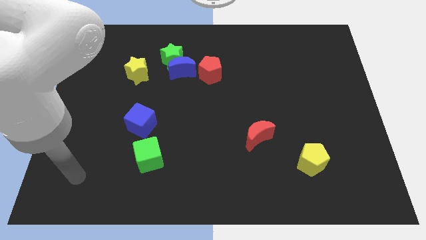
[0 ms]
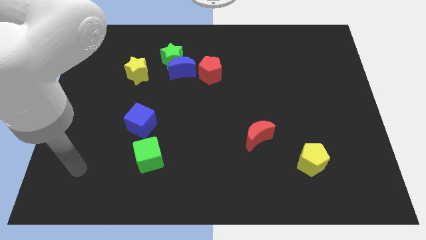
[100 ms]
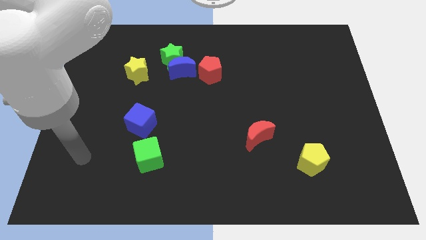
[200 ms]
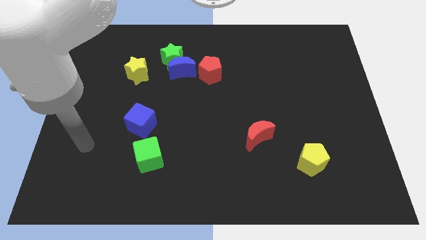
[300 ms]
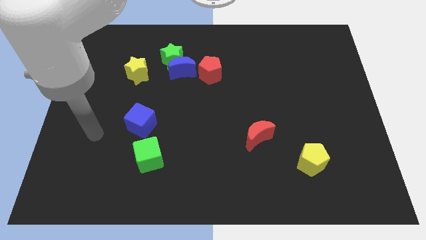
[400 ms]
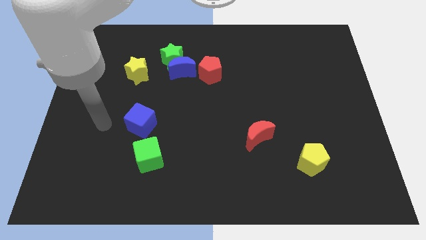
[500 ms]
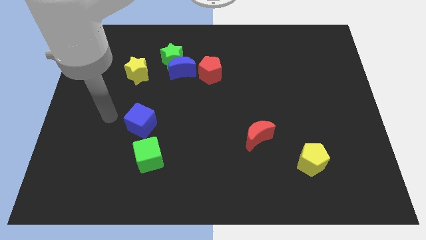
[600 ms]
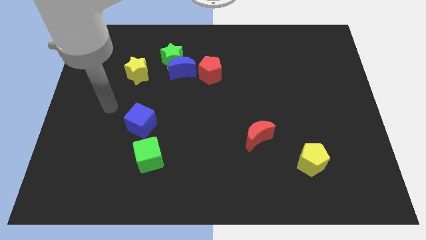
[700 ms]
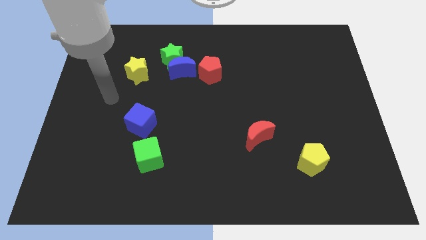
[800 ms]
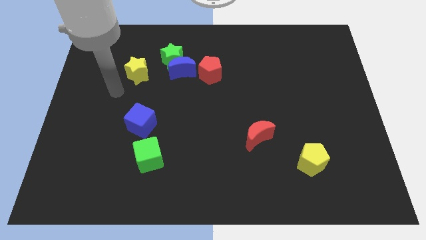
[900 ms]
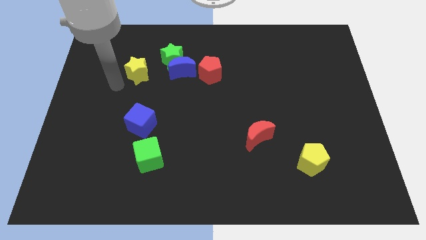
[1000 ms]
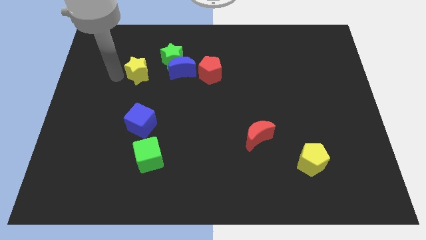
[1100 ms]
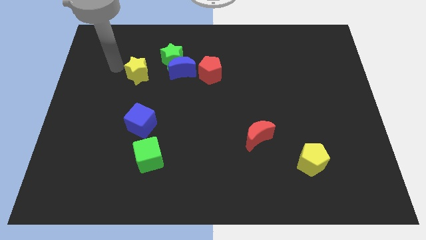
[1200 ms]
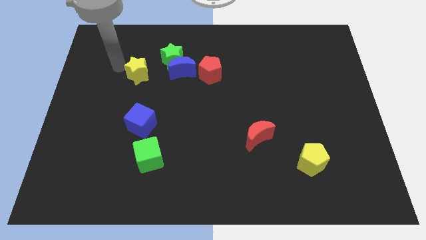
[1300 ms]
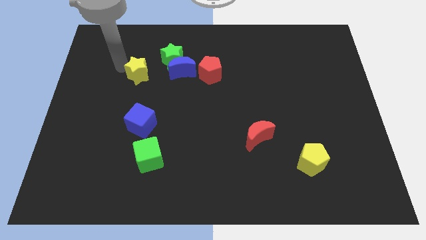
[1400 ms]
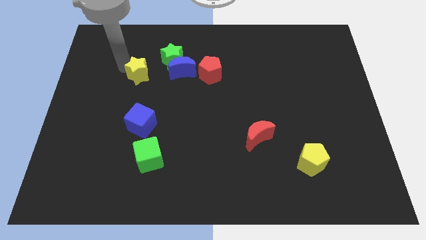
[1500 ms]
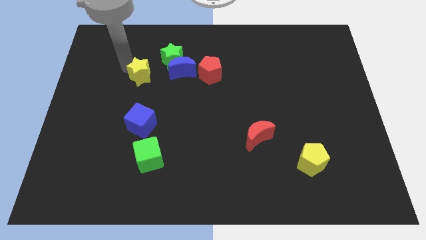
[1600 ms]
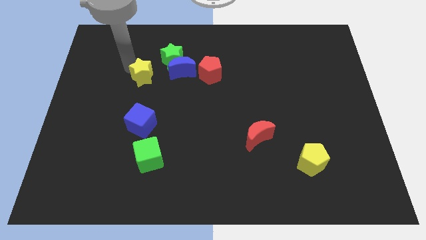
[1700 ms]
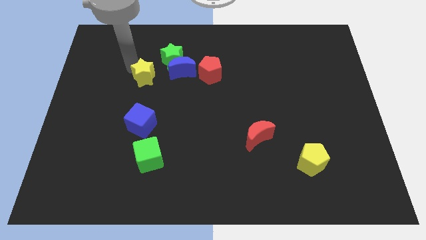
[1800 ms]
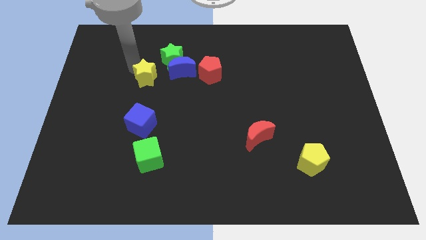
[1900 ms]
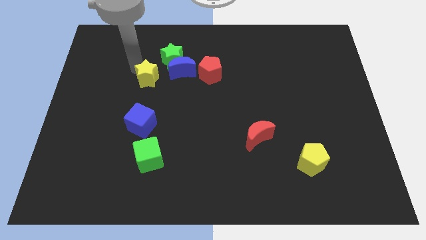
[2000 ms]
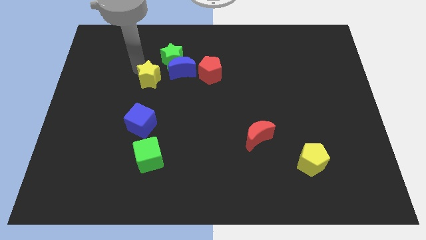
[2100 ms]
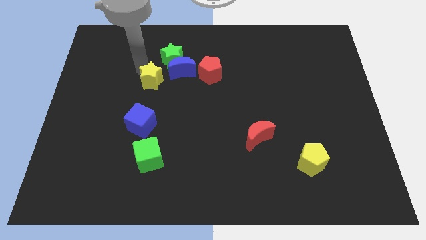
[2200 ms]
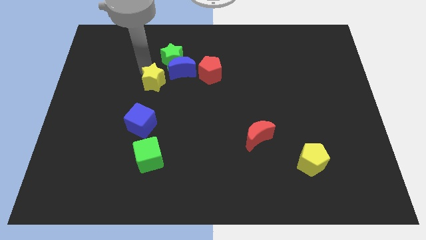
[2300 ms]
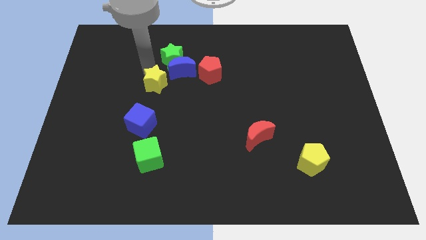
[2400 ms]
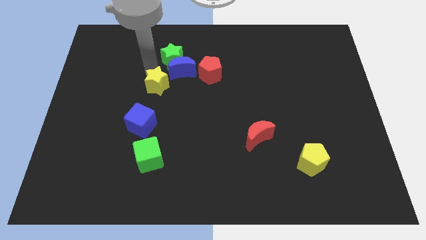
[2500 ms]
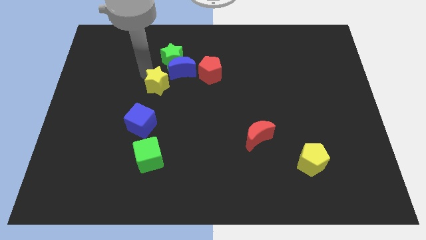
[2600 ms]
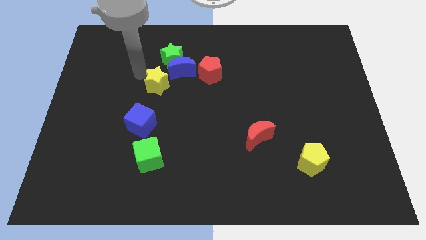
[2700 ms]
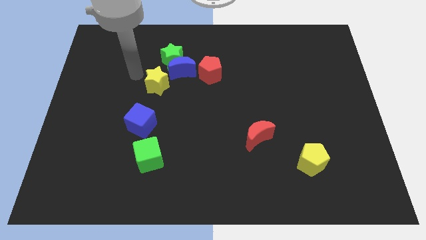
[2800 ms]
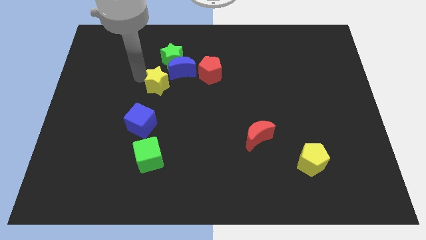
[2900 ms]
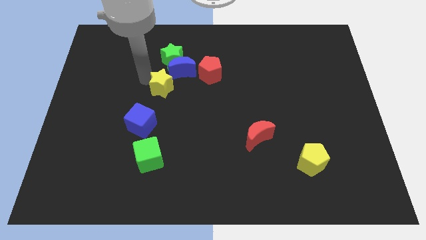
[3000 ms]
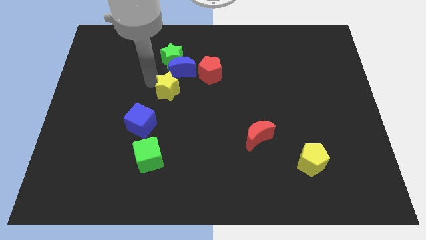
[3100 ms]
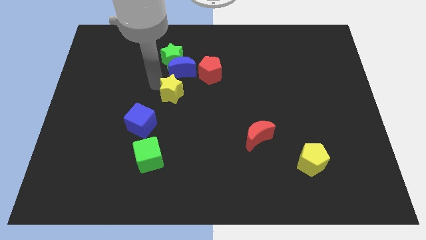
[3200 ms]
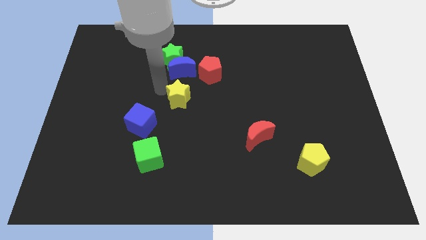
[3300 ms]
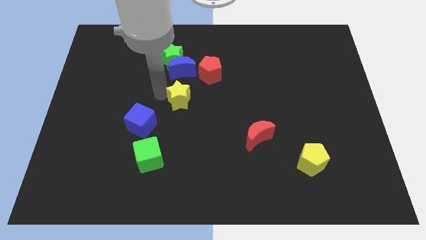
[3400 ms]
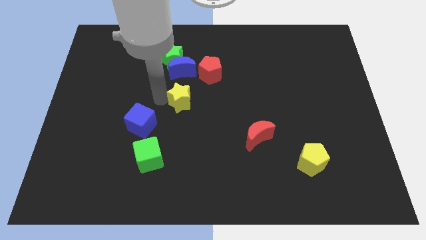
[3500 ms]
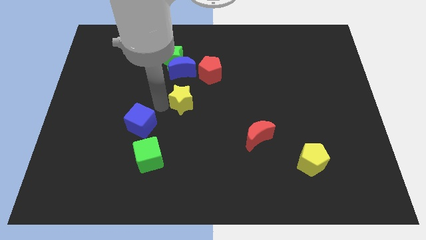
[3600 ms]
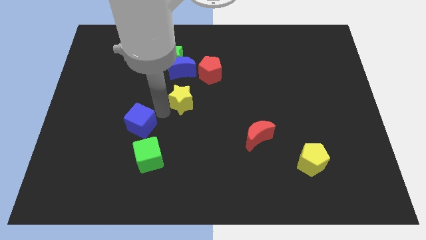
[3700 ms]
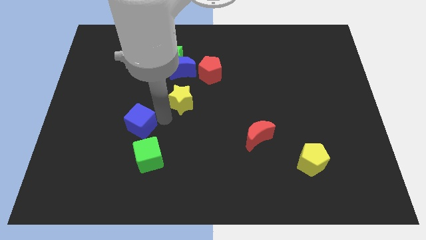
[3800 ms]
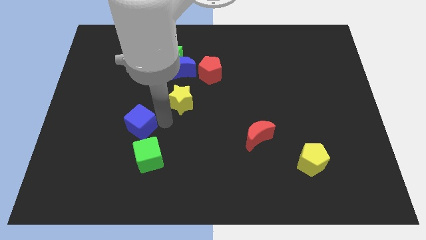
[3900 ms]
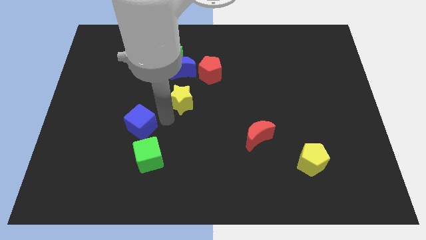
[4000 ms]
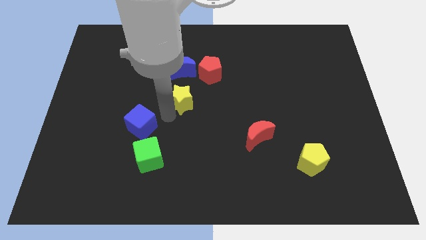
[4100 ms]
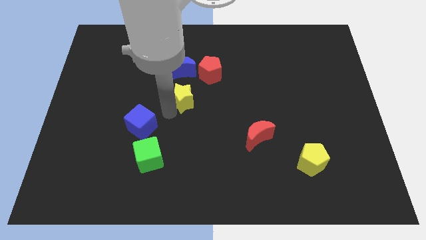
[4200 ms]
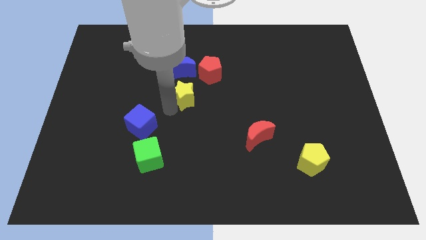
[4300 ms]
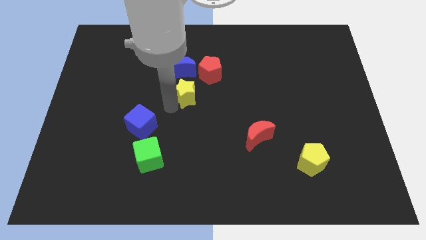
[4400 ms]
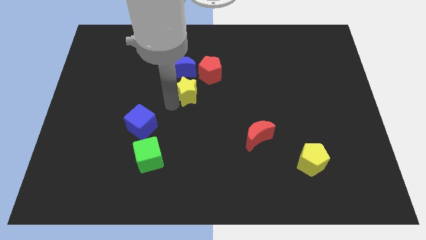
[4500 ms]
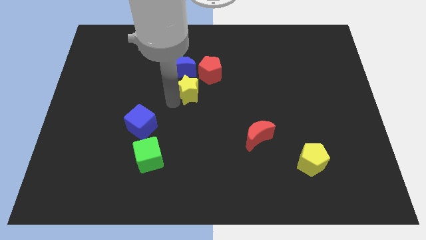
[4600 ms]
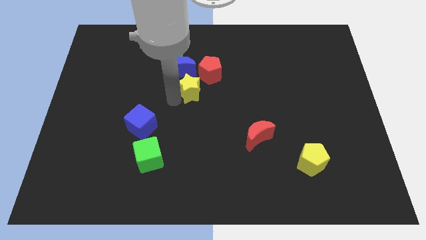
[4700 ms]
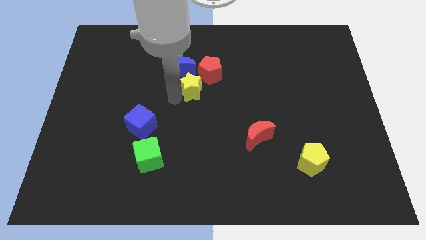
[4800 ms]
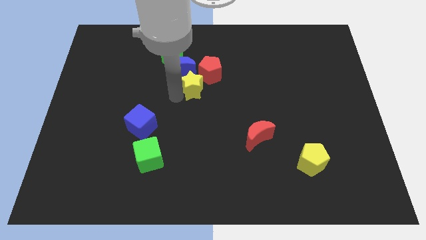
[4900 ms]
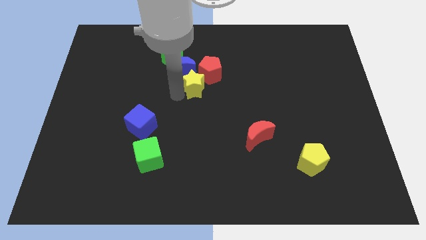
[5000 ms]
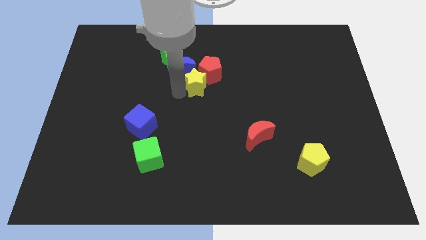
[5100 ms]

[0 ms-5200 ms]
put the yellow star towards the red pentagon

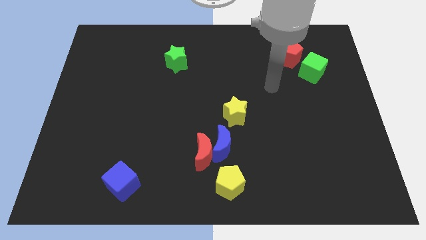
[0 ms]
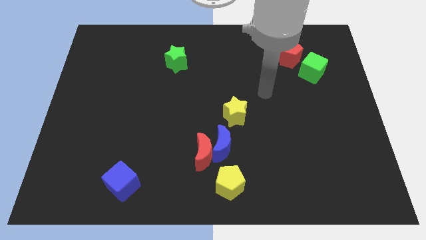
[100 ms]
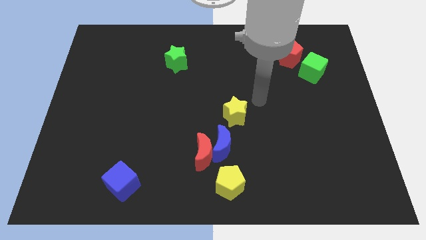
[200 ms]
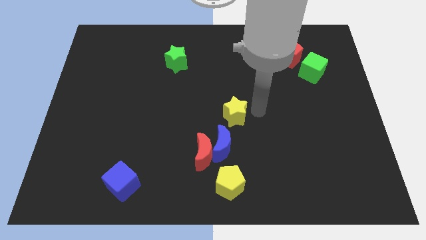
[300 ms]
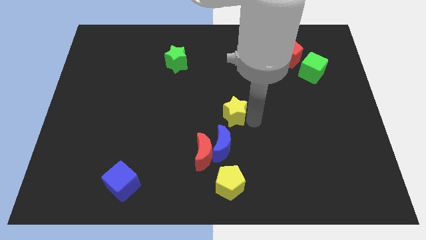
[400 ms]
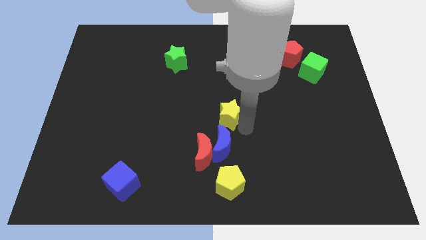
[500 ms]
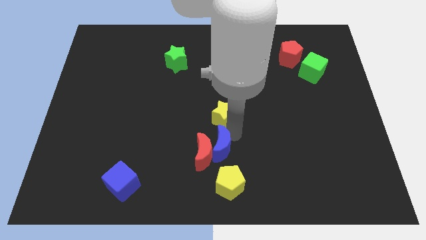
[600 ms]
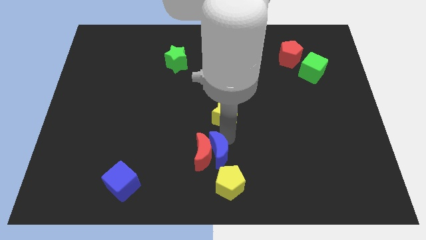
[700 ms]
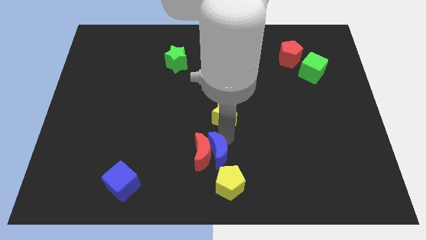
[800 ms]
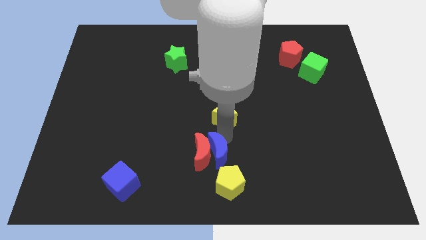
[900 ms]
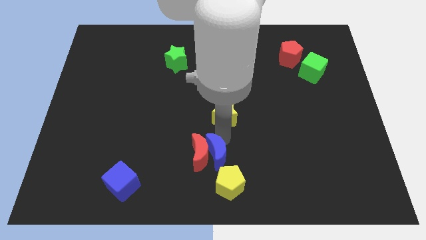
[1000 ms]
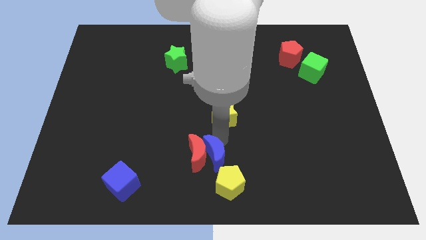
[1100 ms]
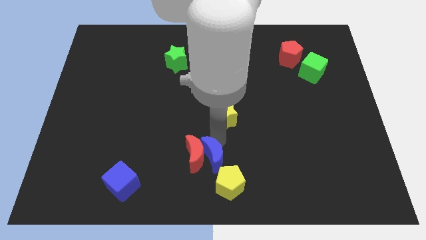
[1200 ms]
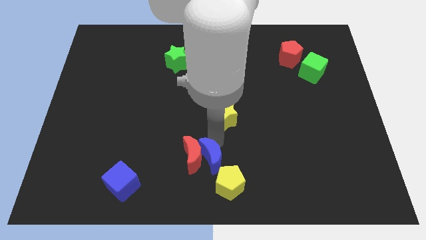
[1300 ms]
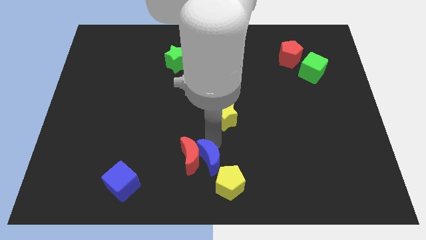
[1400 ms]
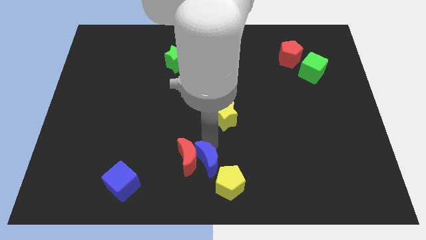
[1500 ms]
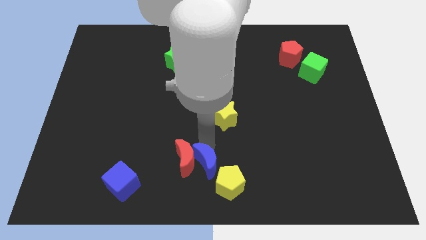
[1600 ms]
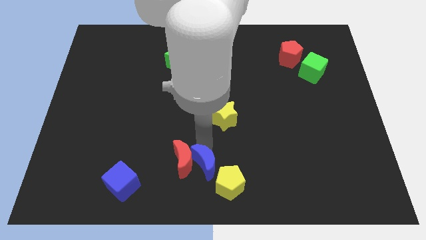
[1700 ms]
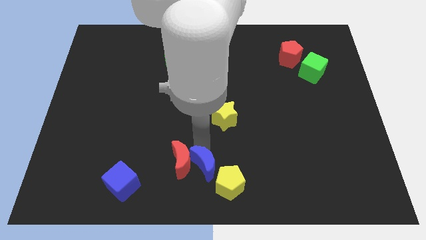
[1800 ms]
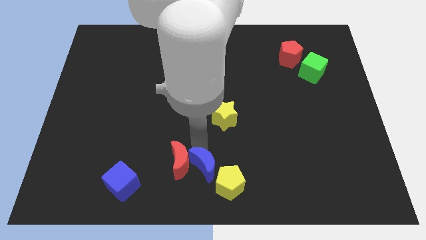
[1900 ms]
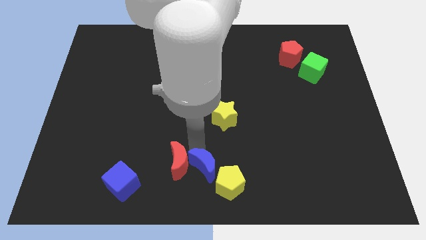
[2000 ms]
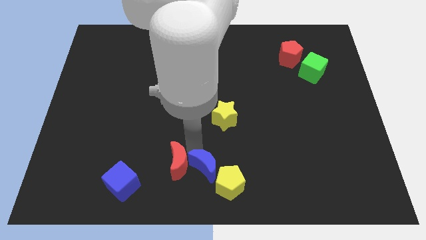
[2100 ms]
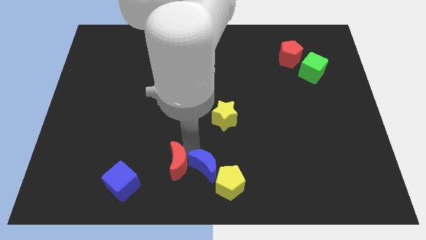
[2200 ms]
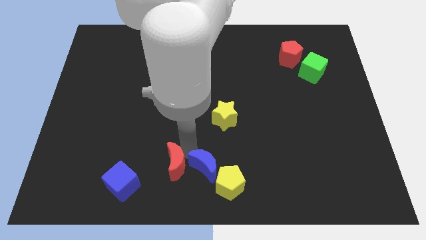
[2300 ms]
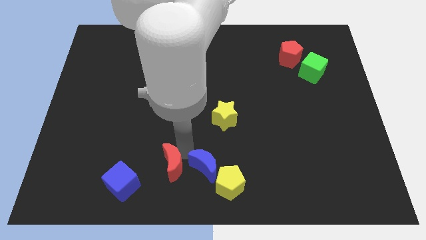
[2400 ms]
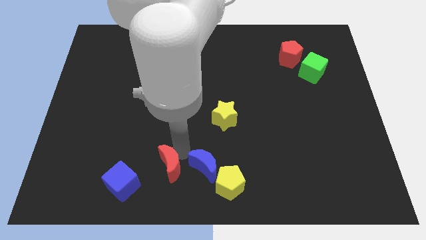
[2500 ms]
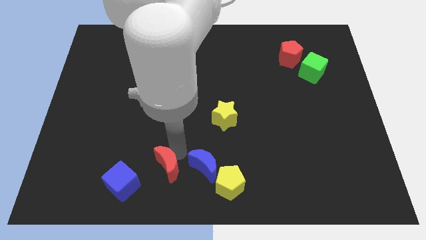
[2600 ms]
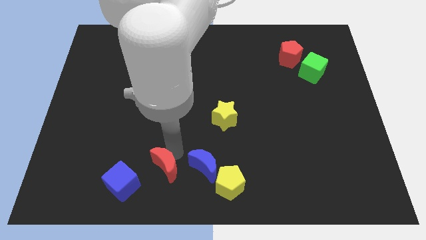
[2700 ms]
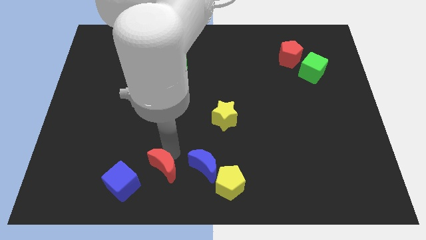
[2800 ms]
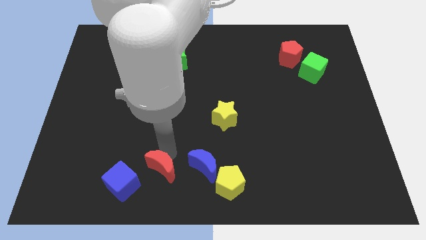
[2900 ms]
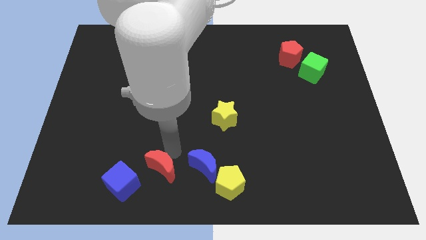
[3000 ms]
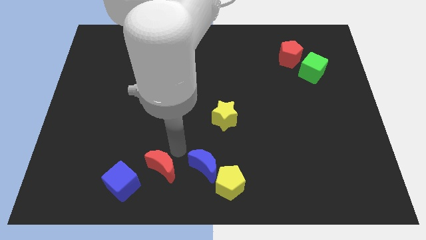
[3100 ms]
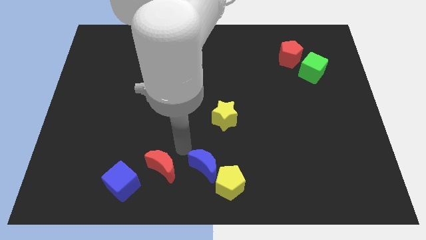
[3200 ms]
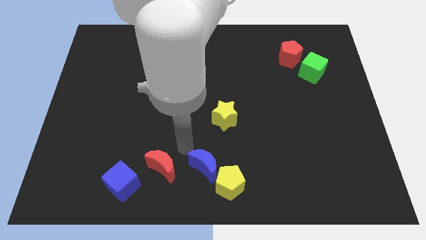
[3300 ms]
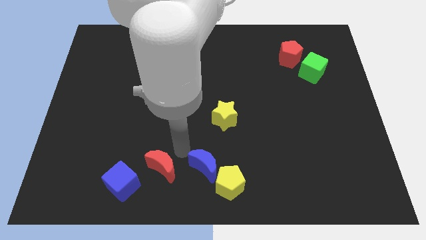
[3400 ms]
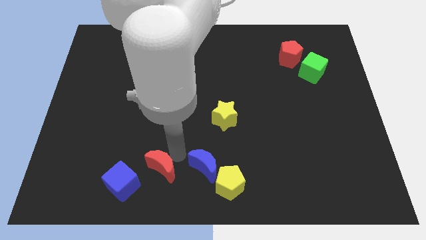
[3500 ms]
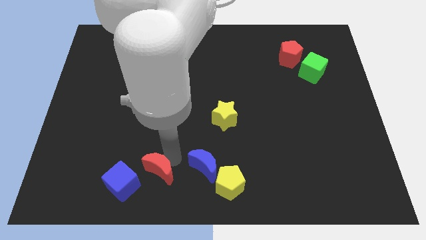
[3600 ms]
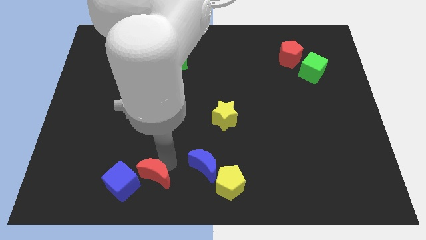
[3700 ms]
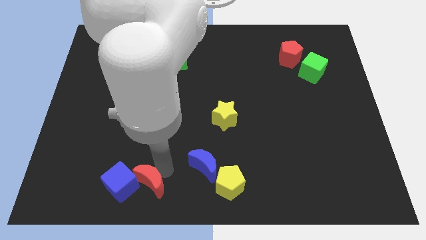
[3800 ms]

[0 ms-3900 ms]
push the red moon close to the blue cube
